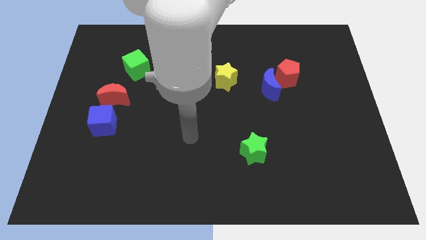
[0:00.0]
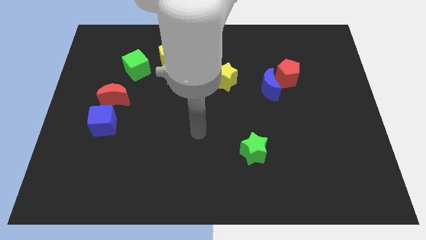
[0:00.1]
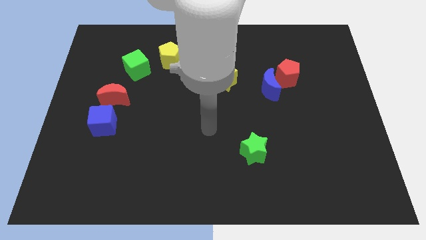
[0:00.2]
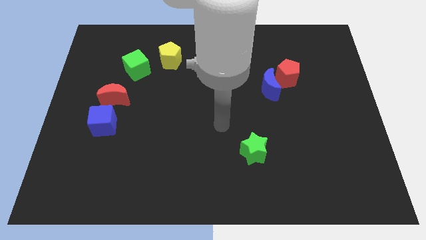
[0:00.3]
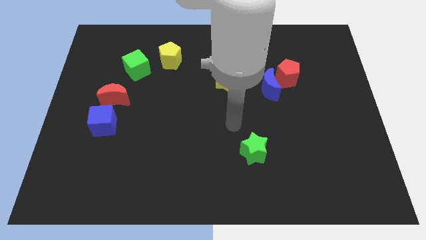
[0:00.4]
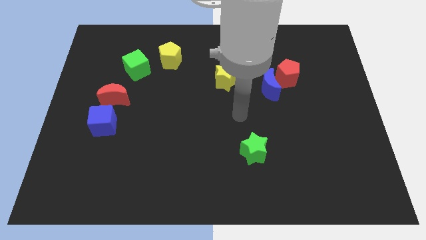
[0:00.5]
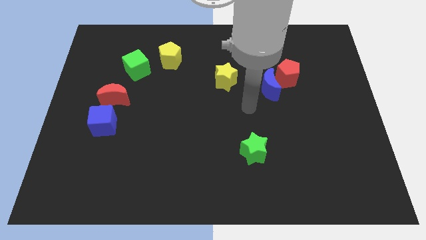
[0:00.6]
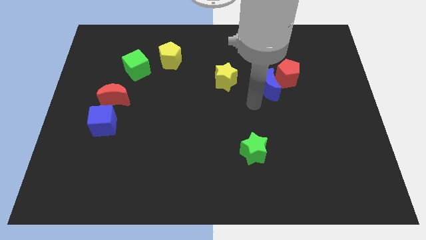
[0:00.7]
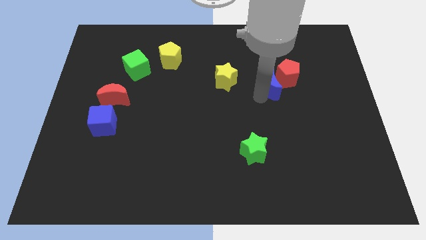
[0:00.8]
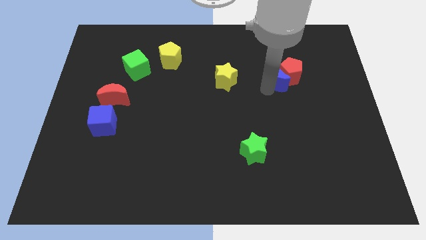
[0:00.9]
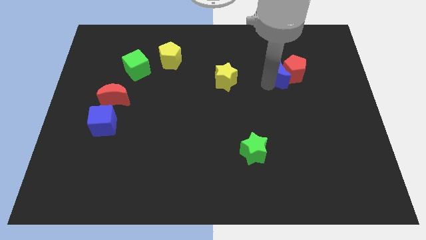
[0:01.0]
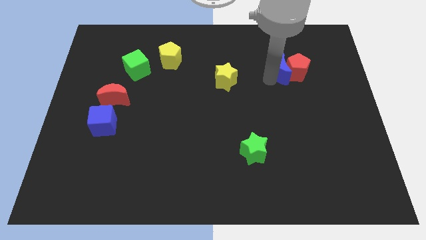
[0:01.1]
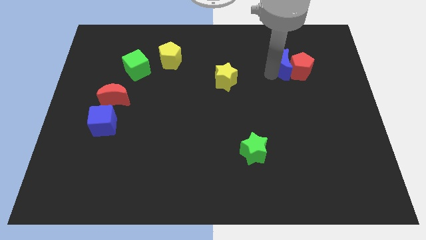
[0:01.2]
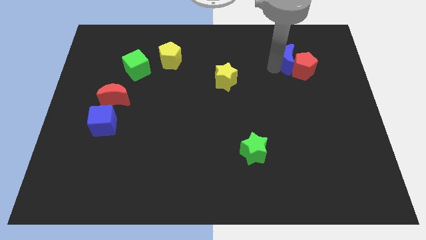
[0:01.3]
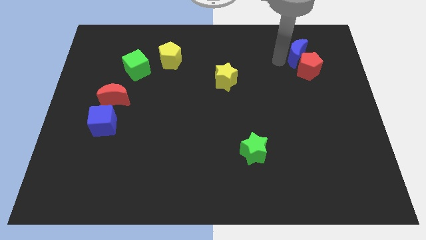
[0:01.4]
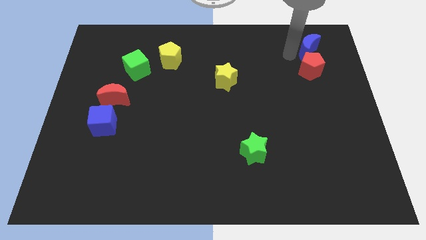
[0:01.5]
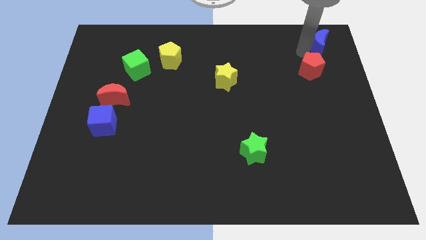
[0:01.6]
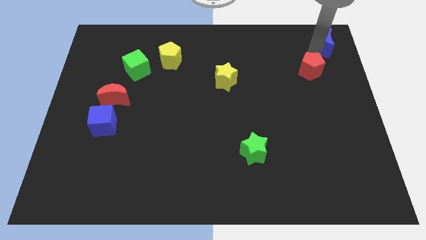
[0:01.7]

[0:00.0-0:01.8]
pull the red pentagon apart from the blue moon

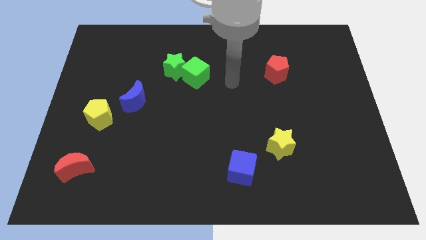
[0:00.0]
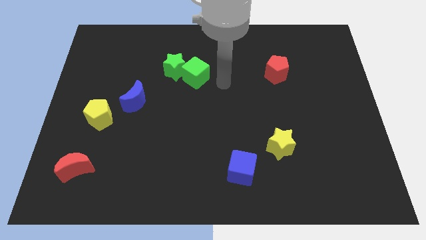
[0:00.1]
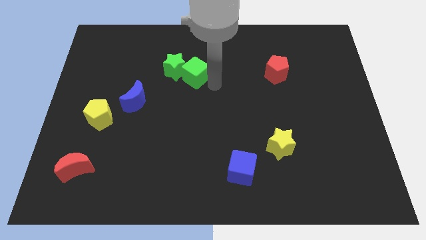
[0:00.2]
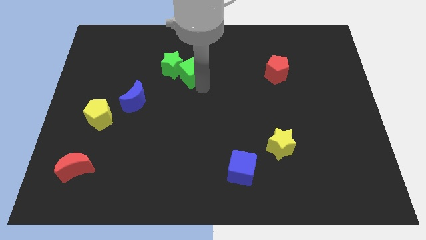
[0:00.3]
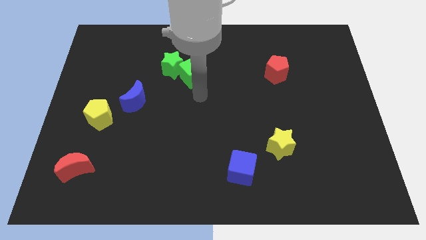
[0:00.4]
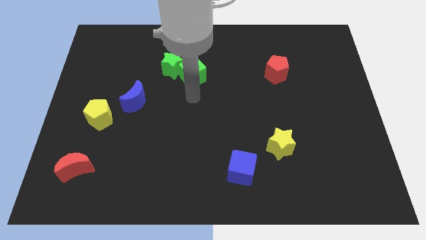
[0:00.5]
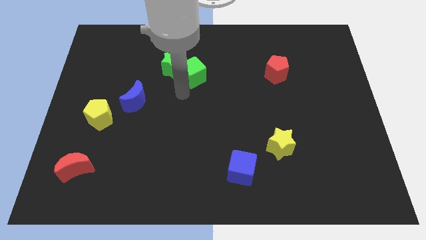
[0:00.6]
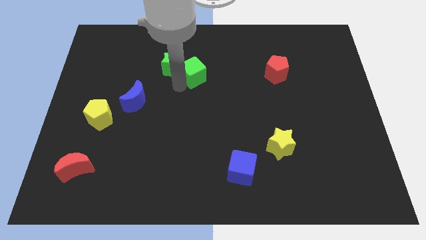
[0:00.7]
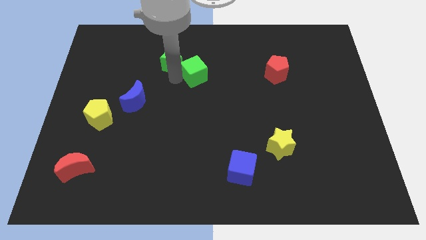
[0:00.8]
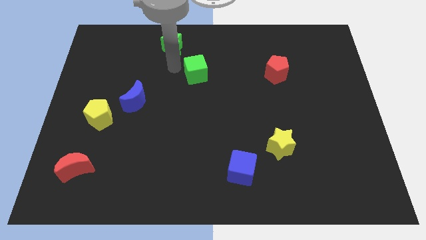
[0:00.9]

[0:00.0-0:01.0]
pull the green cube apart from the green star

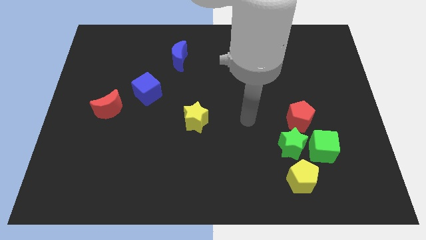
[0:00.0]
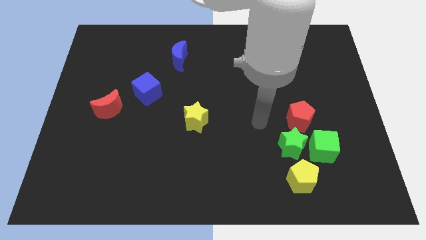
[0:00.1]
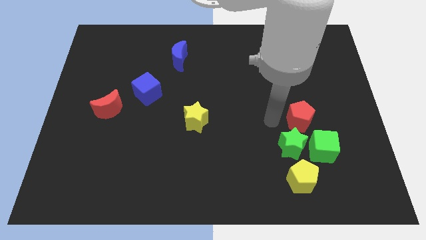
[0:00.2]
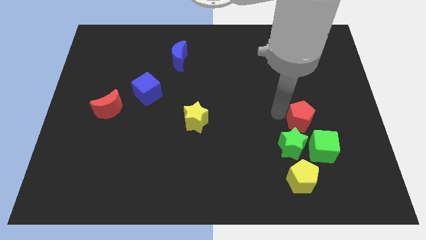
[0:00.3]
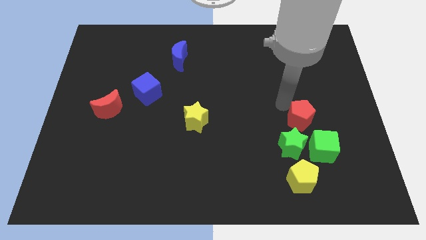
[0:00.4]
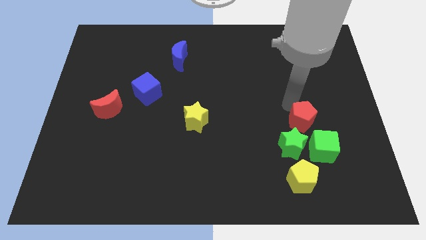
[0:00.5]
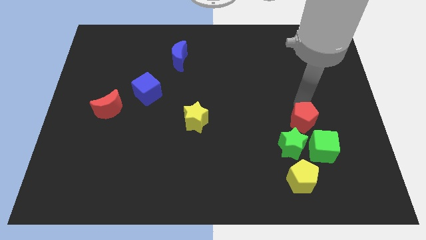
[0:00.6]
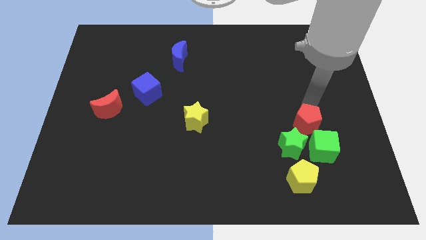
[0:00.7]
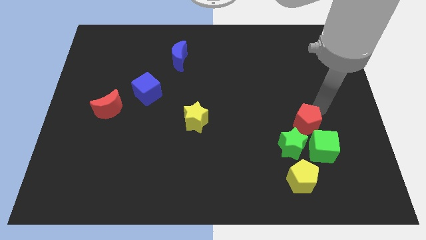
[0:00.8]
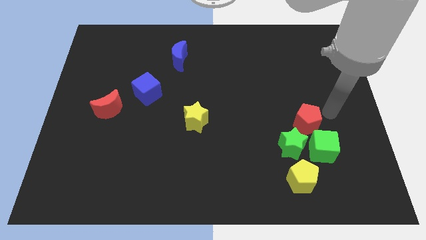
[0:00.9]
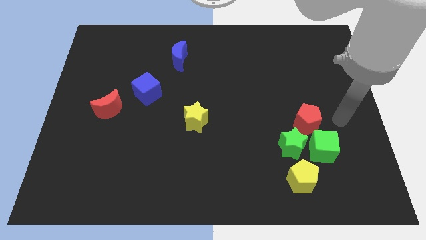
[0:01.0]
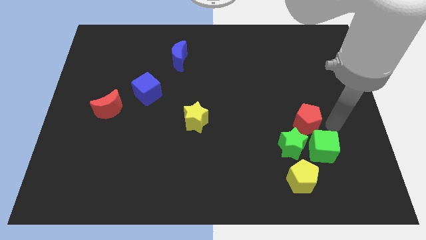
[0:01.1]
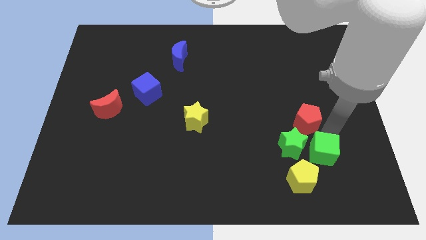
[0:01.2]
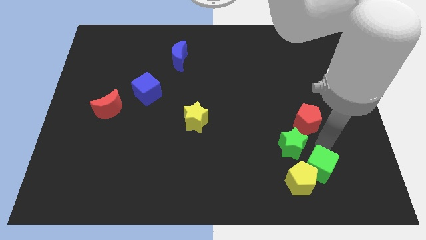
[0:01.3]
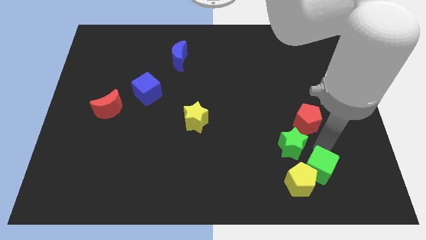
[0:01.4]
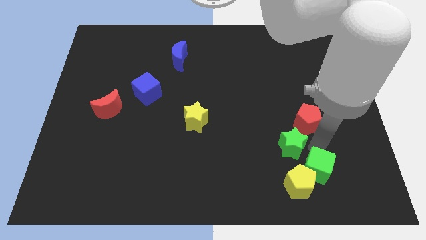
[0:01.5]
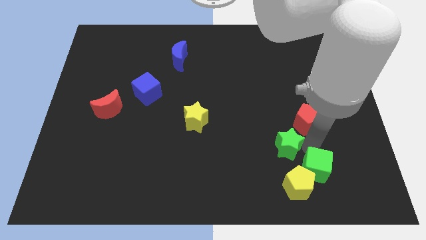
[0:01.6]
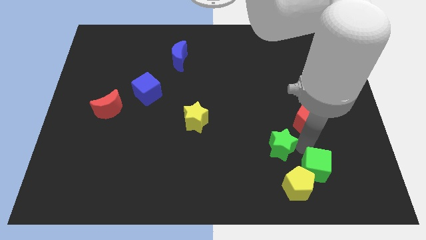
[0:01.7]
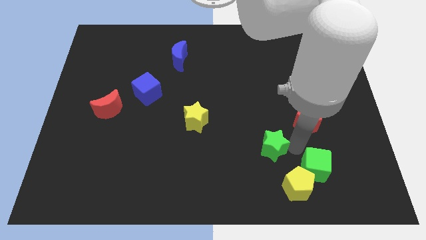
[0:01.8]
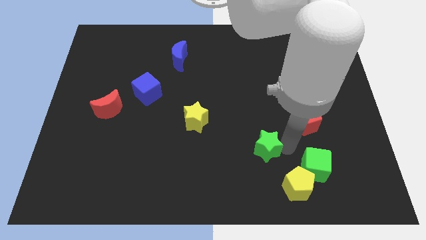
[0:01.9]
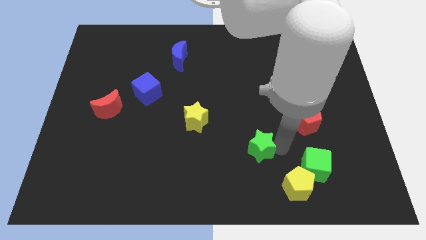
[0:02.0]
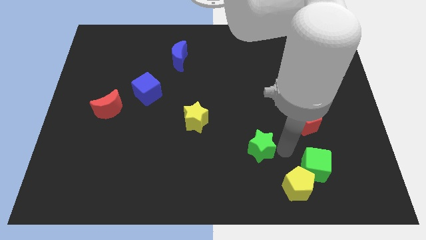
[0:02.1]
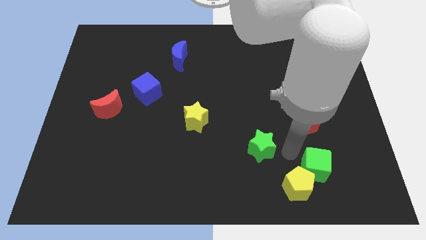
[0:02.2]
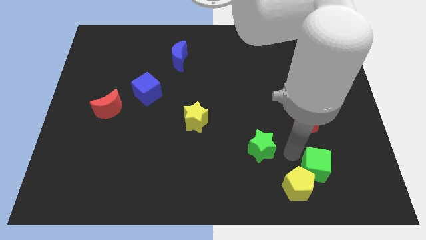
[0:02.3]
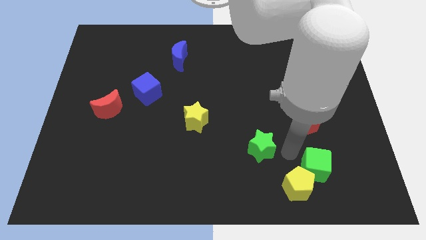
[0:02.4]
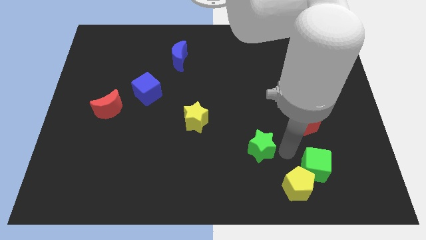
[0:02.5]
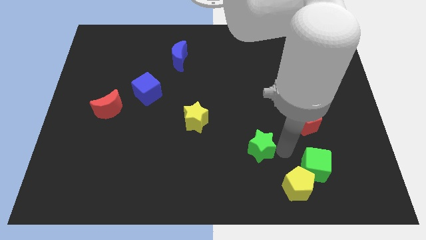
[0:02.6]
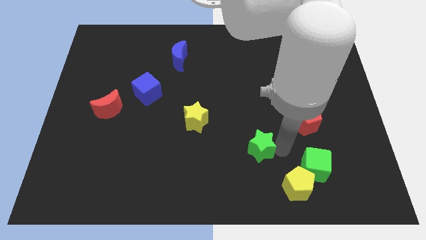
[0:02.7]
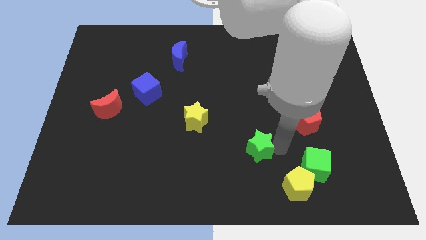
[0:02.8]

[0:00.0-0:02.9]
pull the green star apart from the group of blocks

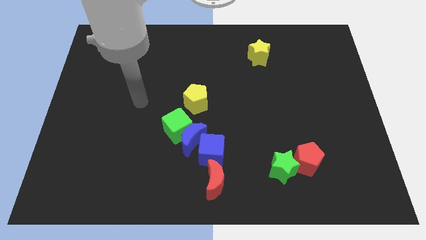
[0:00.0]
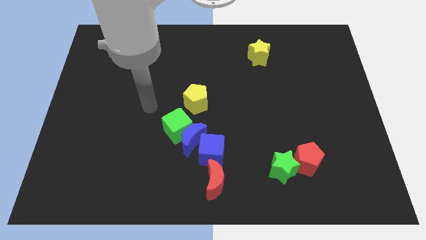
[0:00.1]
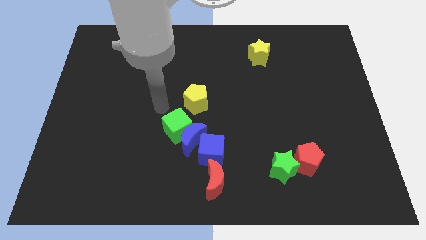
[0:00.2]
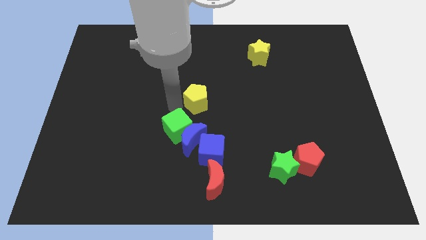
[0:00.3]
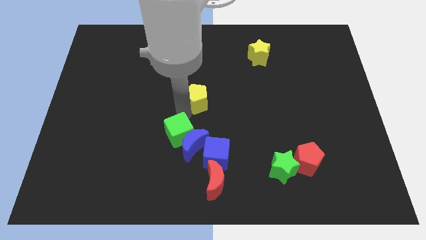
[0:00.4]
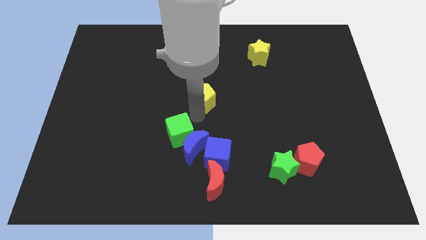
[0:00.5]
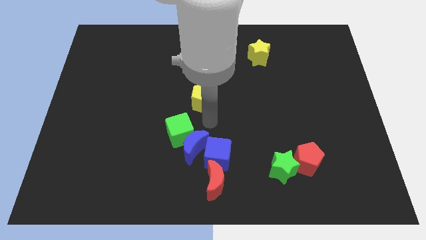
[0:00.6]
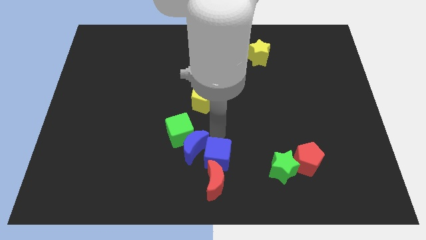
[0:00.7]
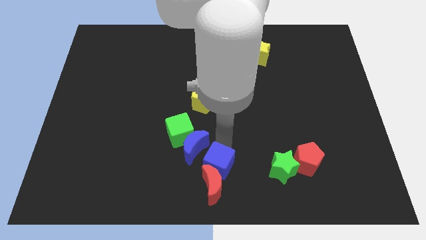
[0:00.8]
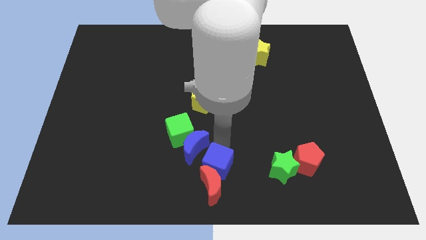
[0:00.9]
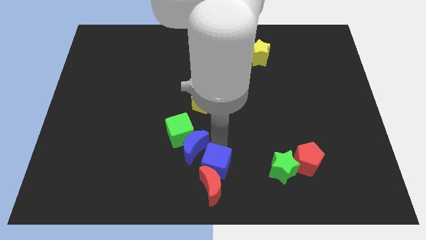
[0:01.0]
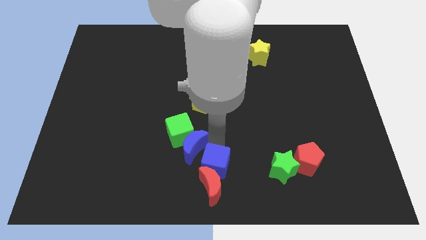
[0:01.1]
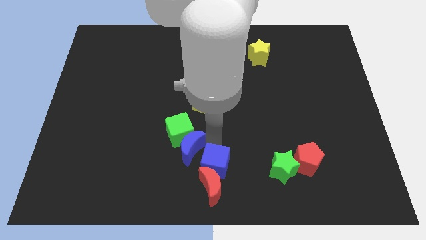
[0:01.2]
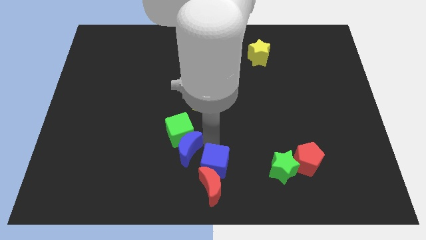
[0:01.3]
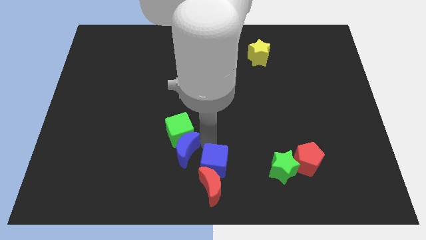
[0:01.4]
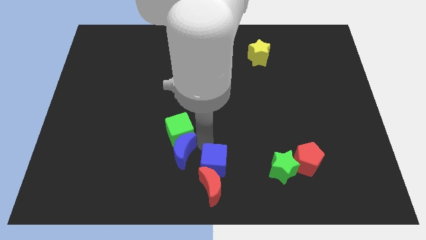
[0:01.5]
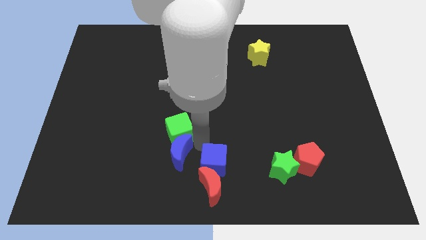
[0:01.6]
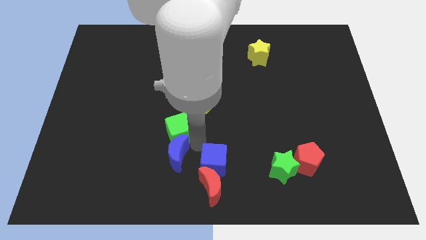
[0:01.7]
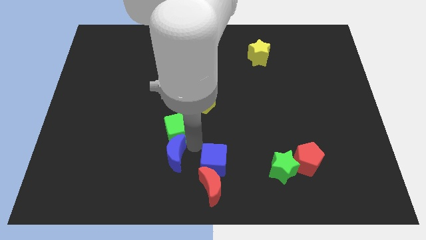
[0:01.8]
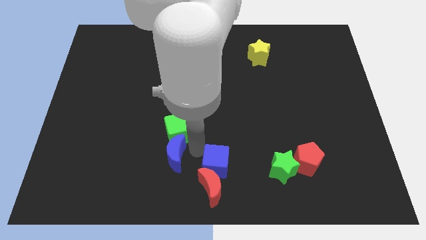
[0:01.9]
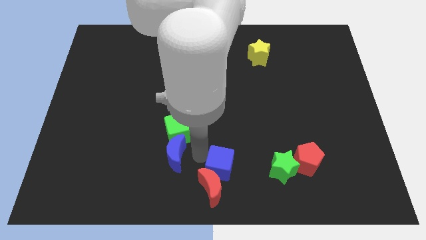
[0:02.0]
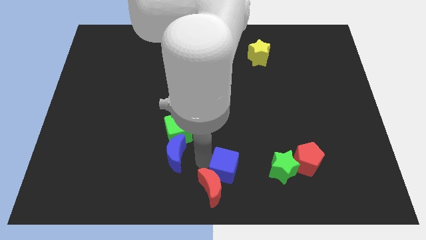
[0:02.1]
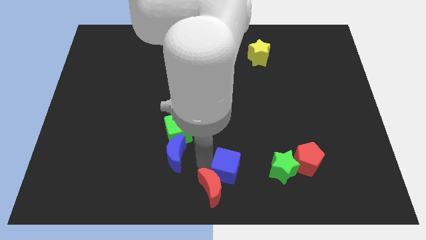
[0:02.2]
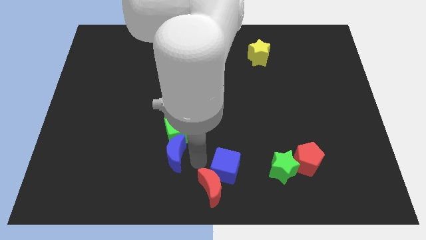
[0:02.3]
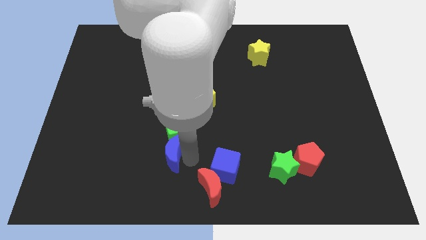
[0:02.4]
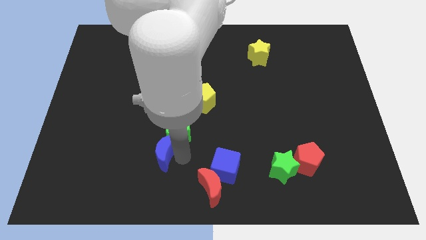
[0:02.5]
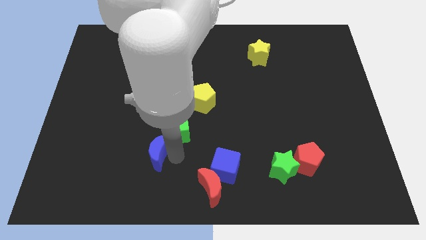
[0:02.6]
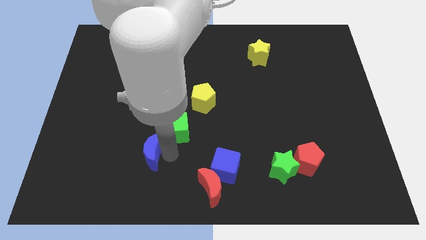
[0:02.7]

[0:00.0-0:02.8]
move the blue moon away from the green cube and blue cube

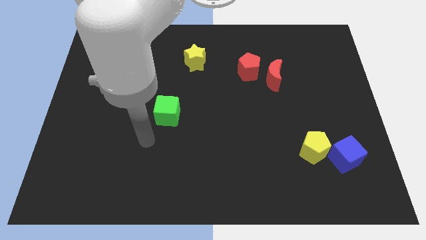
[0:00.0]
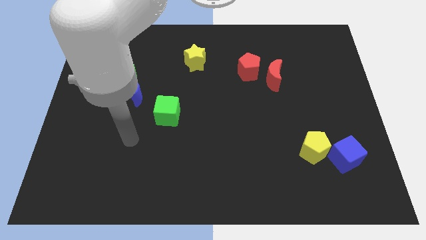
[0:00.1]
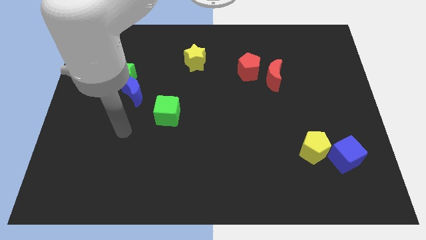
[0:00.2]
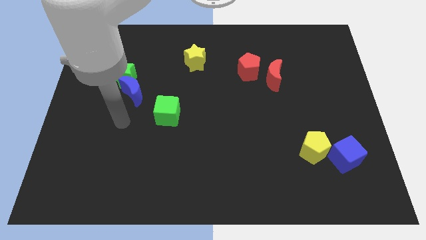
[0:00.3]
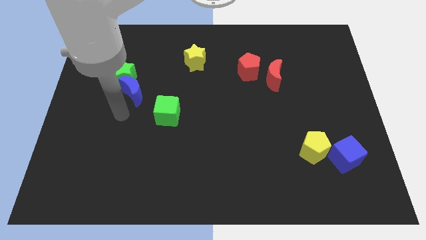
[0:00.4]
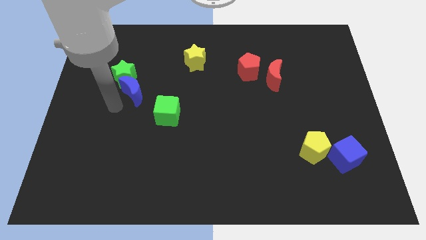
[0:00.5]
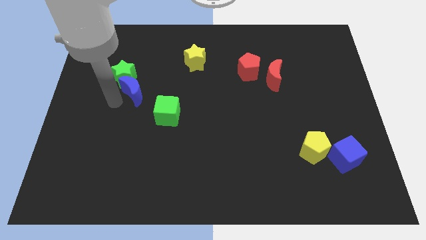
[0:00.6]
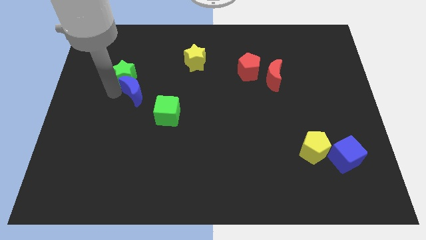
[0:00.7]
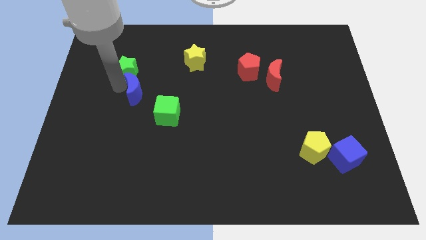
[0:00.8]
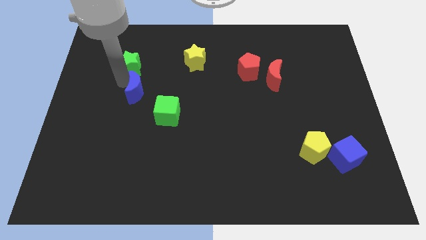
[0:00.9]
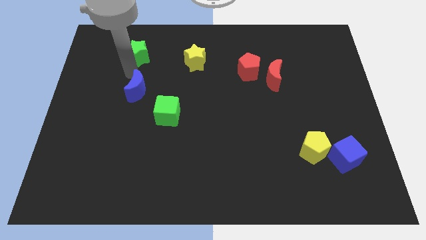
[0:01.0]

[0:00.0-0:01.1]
move the blue moon away from the green star
